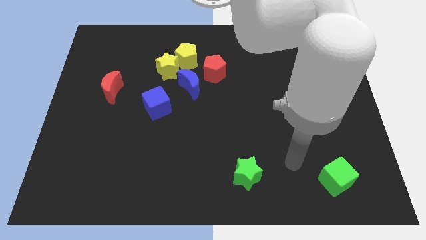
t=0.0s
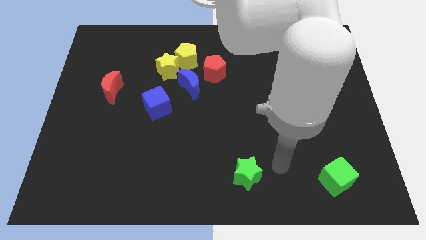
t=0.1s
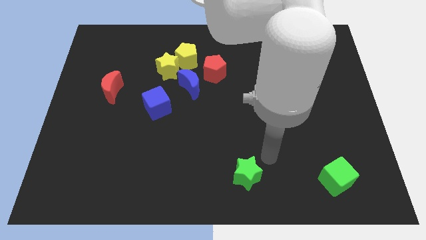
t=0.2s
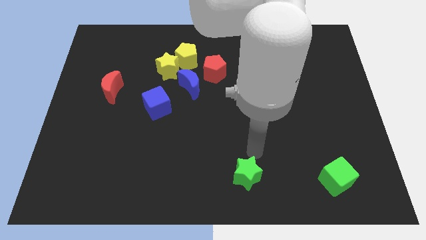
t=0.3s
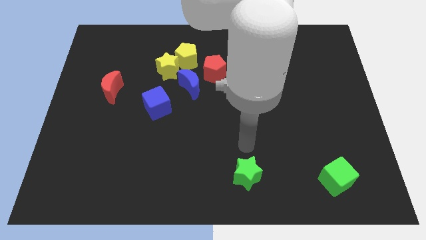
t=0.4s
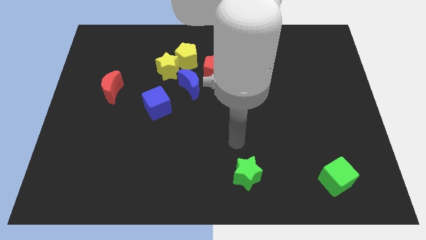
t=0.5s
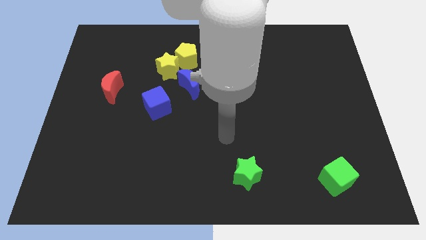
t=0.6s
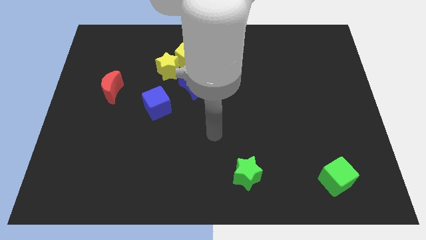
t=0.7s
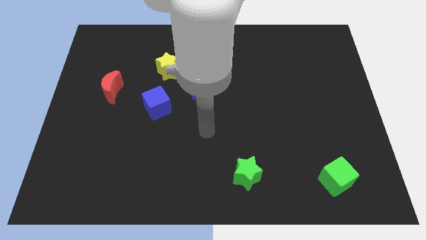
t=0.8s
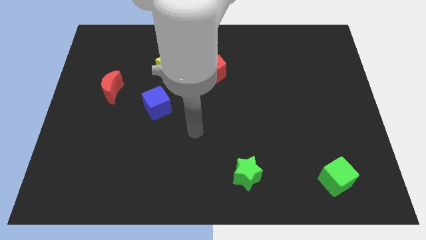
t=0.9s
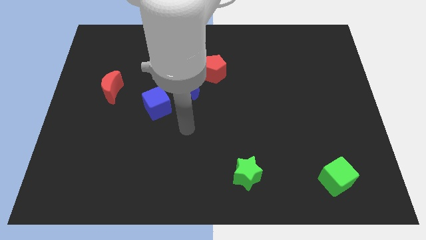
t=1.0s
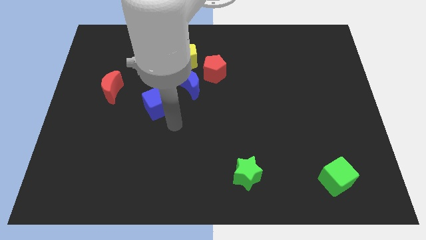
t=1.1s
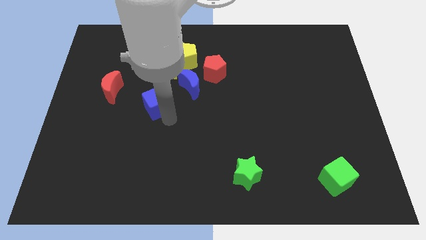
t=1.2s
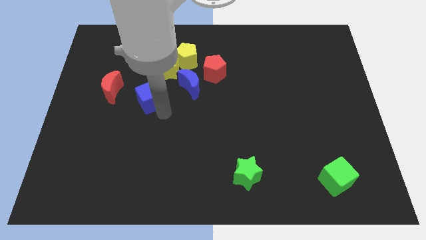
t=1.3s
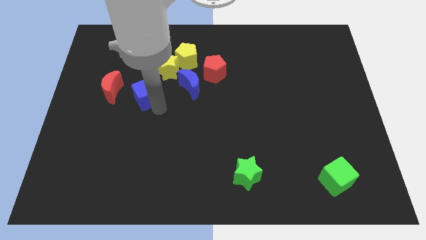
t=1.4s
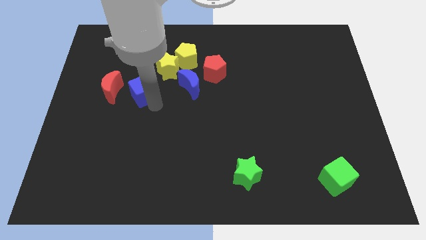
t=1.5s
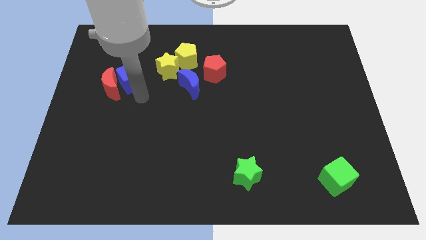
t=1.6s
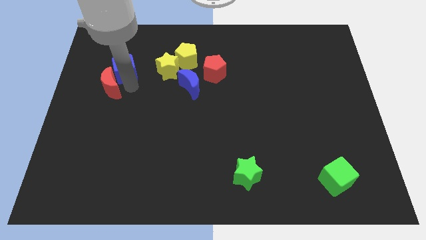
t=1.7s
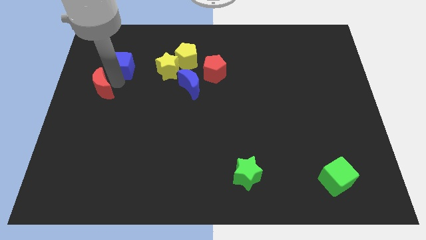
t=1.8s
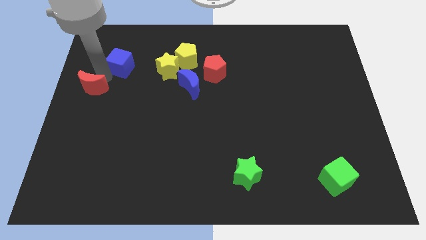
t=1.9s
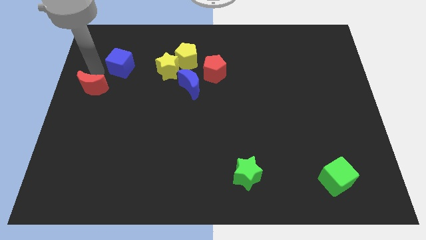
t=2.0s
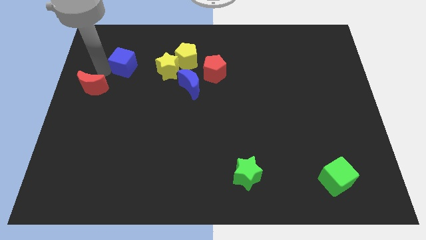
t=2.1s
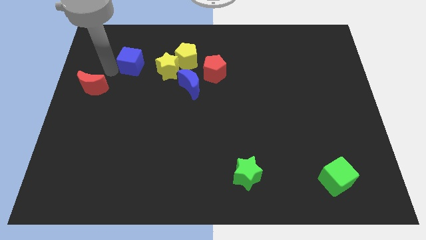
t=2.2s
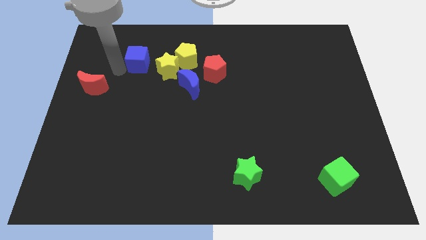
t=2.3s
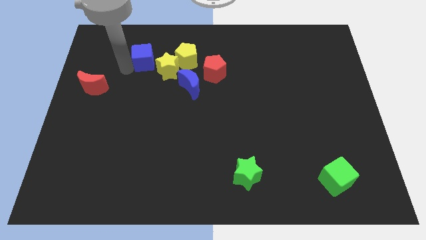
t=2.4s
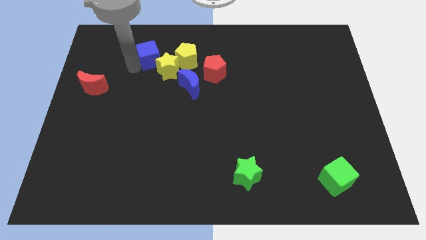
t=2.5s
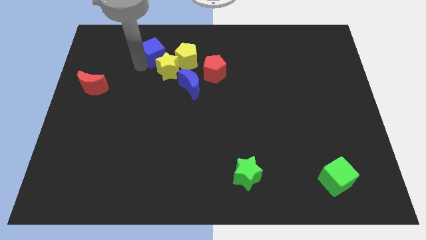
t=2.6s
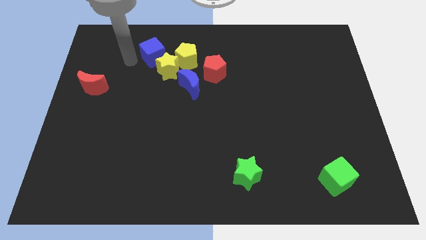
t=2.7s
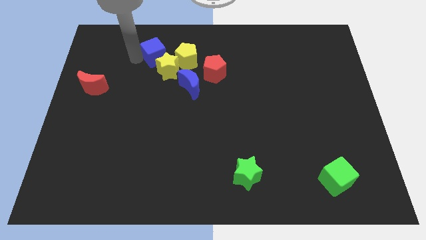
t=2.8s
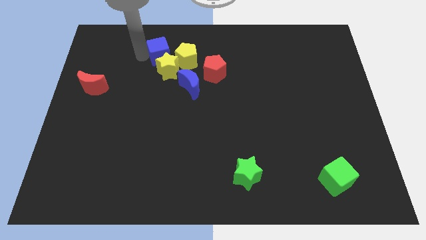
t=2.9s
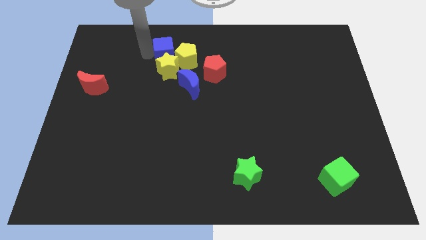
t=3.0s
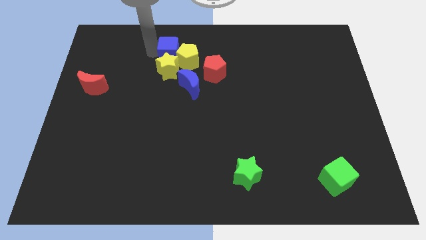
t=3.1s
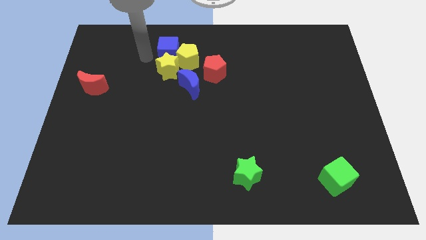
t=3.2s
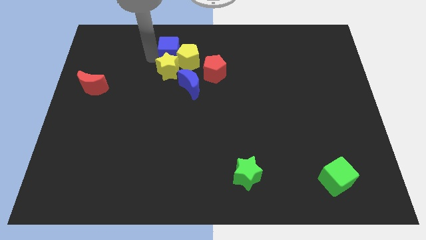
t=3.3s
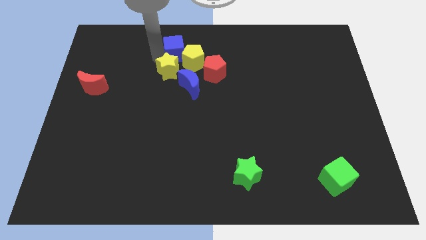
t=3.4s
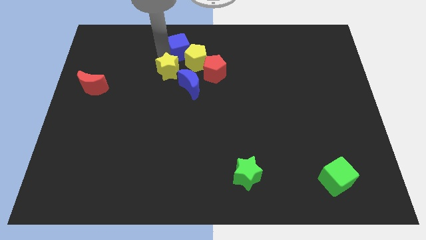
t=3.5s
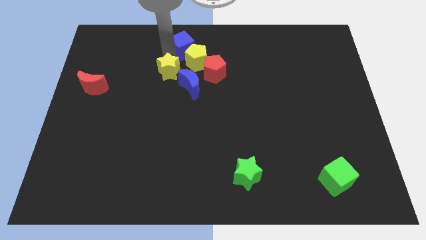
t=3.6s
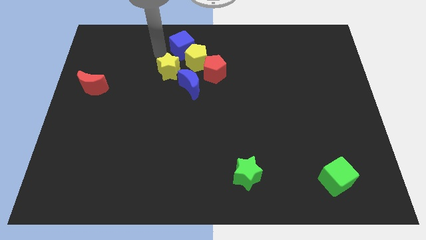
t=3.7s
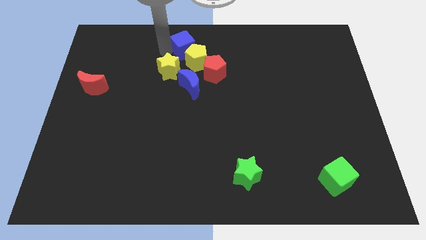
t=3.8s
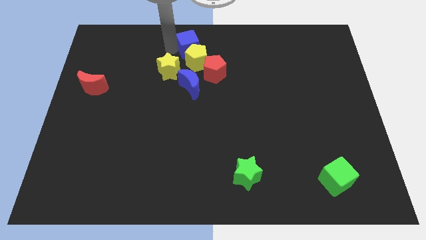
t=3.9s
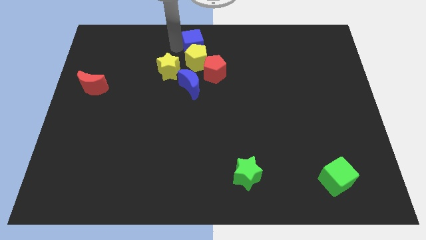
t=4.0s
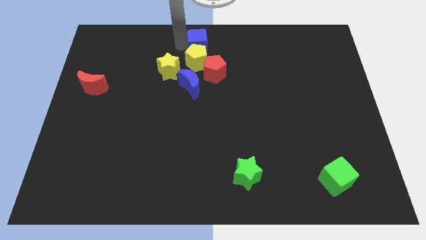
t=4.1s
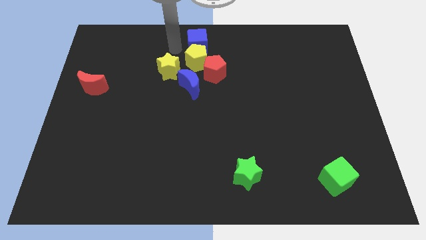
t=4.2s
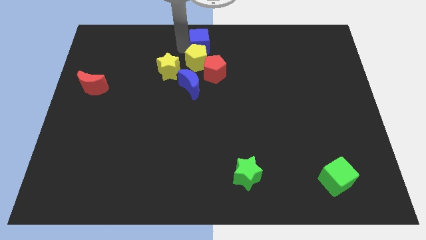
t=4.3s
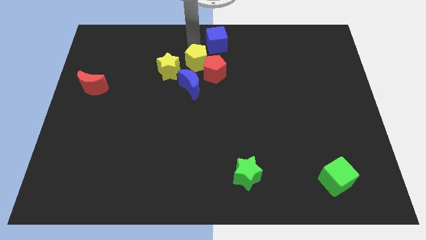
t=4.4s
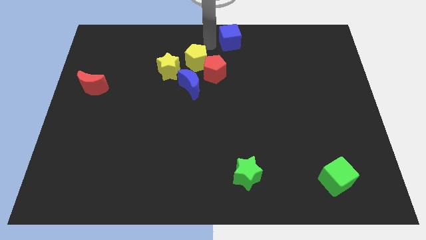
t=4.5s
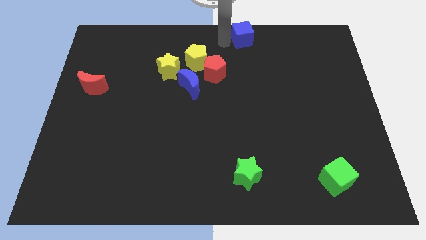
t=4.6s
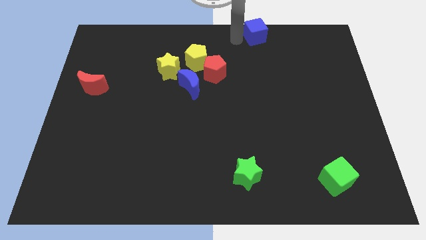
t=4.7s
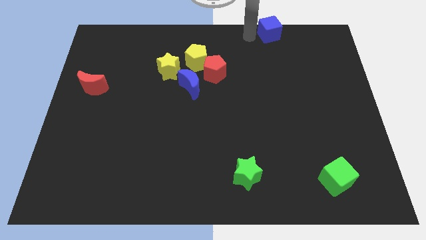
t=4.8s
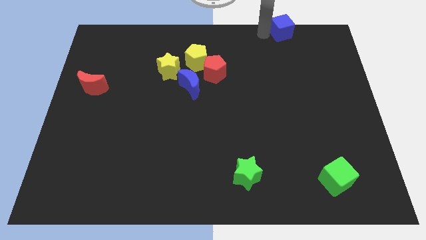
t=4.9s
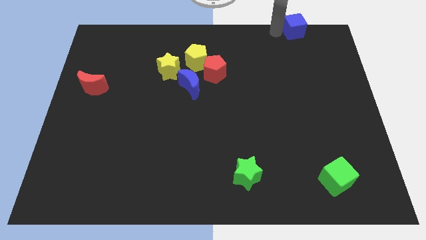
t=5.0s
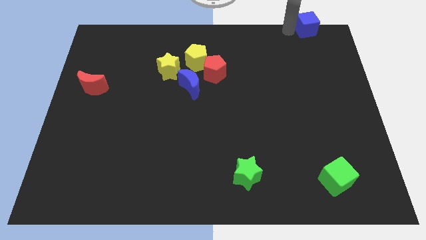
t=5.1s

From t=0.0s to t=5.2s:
slide the blue cube to the top right of the board

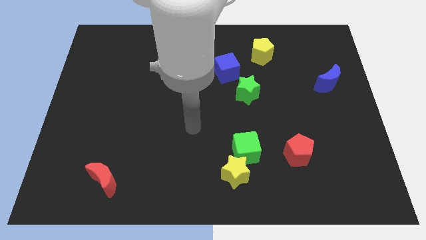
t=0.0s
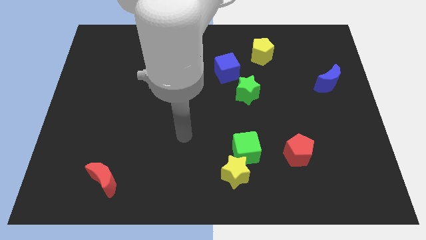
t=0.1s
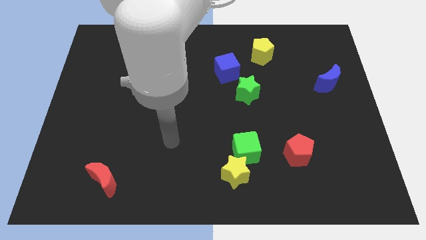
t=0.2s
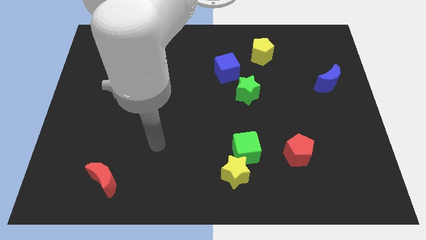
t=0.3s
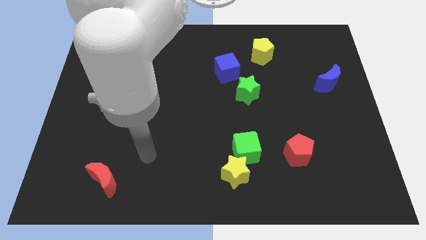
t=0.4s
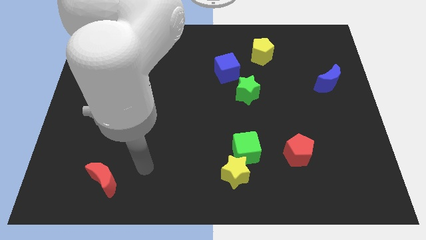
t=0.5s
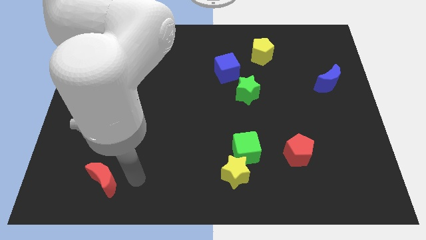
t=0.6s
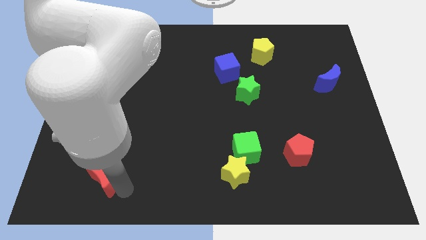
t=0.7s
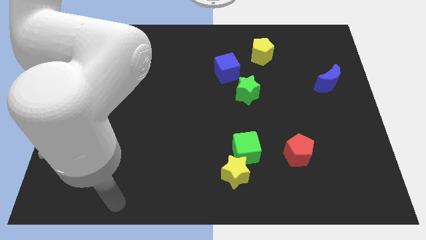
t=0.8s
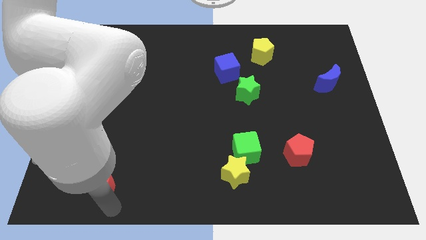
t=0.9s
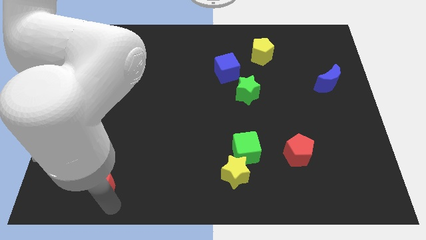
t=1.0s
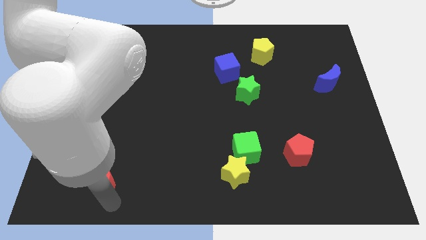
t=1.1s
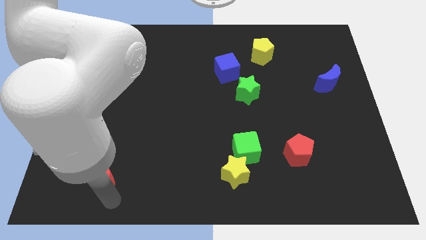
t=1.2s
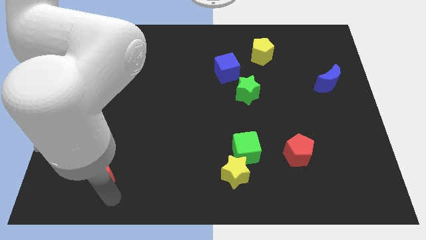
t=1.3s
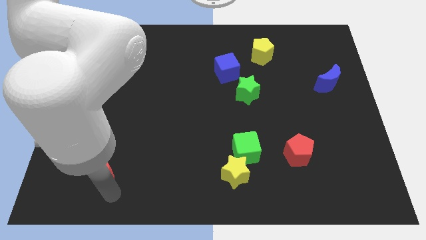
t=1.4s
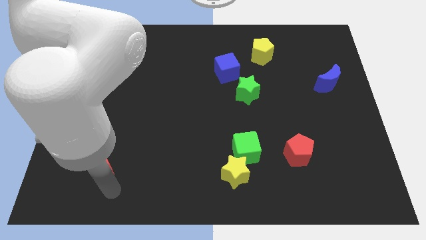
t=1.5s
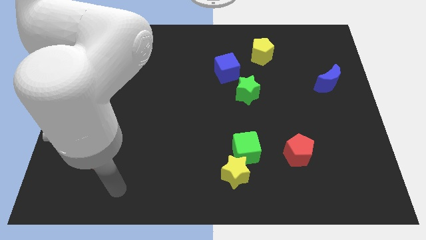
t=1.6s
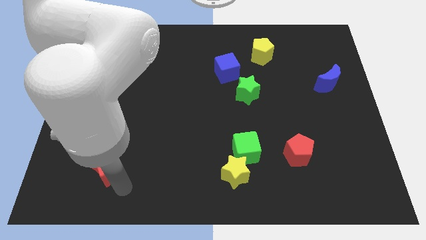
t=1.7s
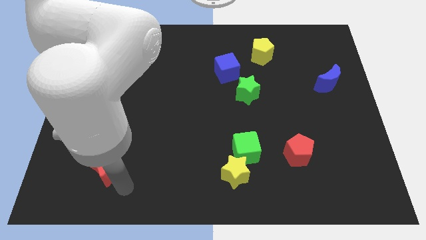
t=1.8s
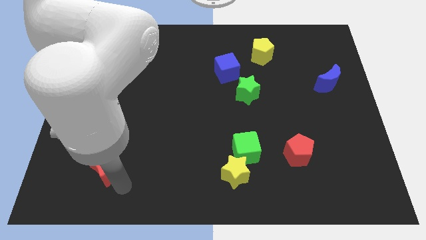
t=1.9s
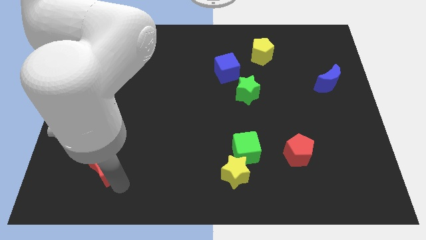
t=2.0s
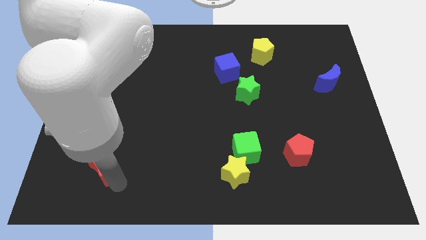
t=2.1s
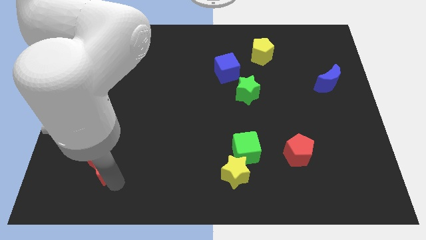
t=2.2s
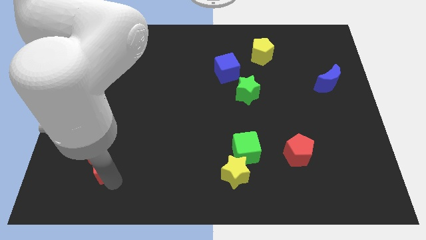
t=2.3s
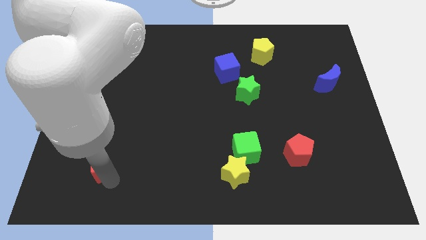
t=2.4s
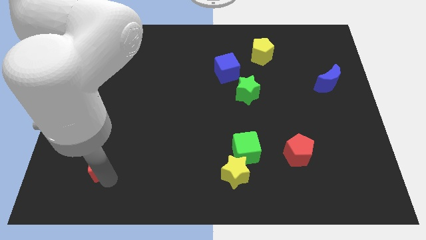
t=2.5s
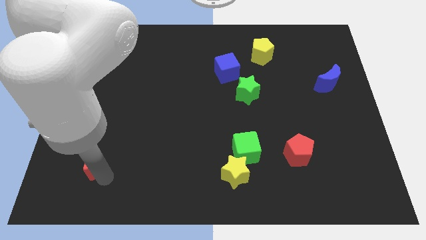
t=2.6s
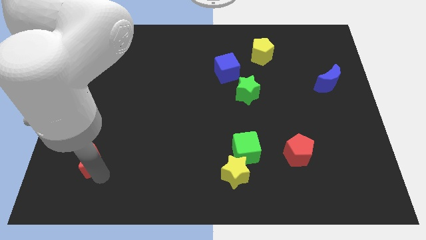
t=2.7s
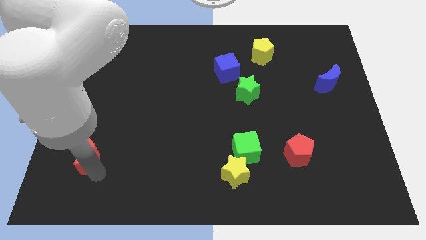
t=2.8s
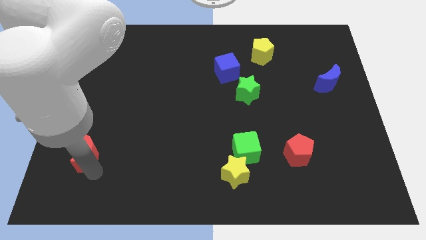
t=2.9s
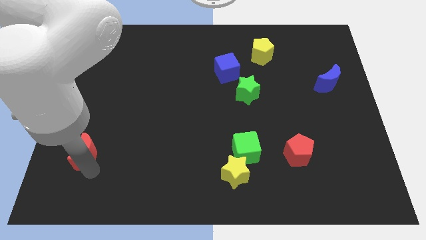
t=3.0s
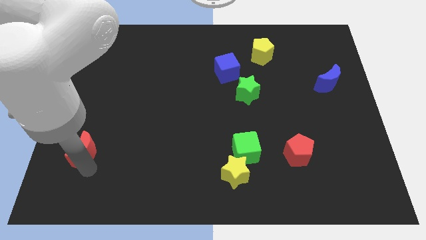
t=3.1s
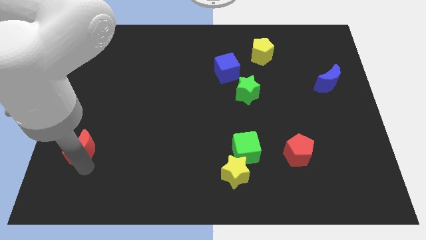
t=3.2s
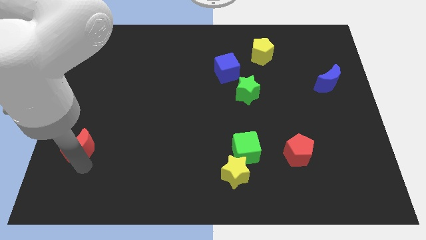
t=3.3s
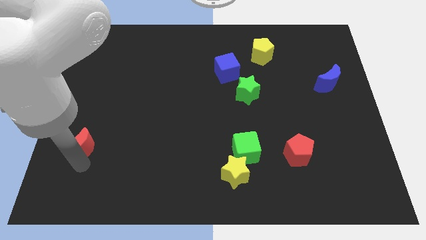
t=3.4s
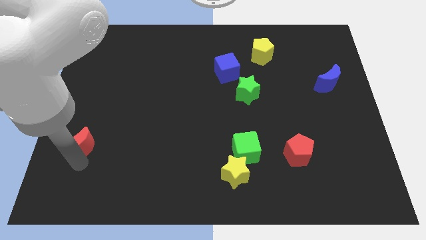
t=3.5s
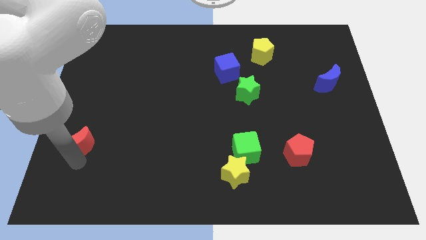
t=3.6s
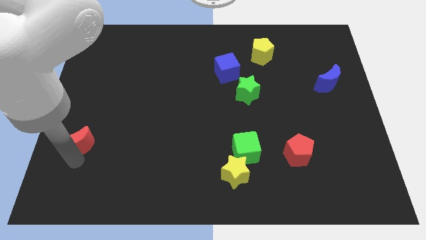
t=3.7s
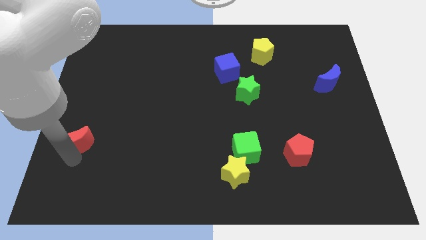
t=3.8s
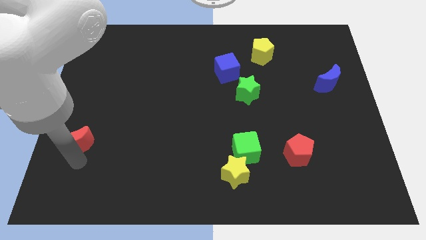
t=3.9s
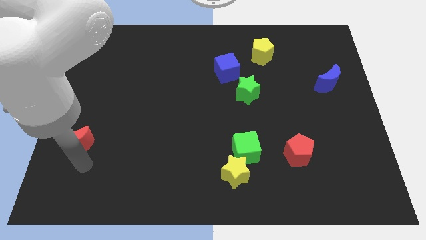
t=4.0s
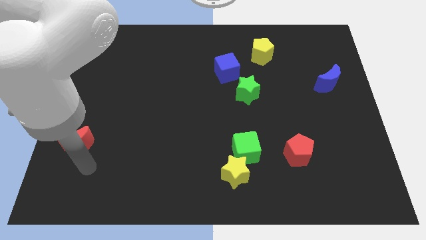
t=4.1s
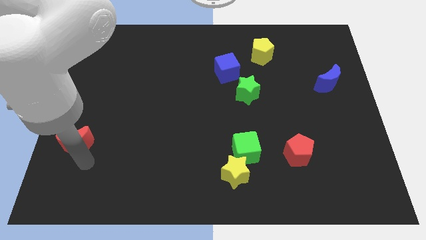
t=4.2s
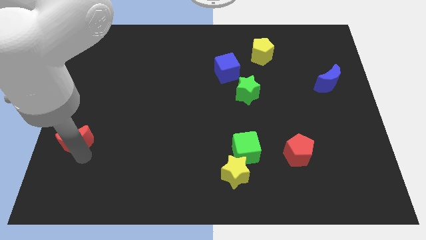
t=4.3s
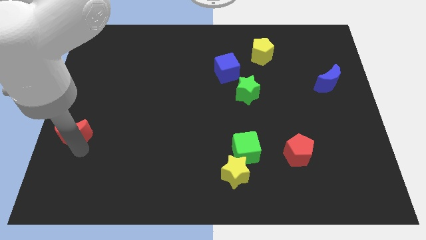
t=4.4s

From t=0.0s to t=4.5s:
move the red moon to the left side
